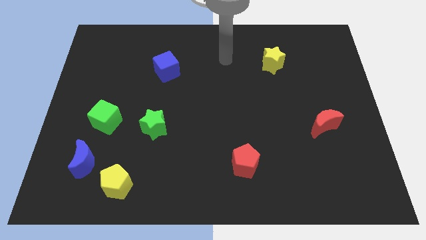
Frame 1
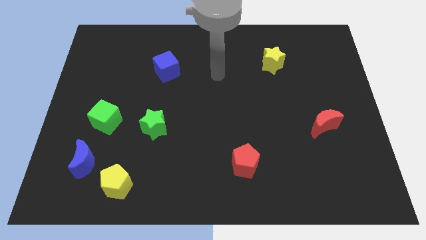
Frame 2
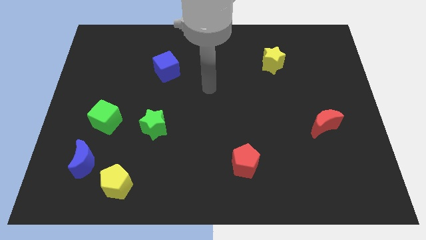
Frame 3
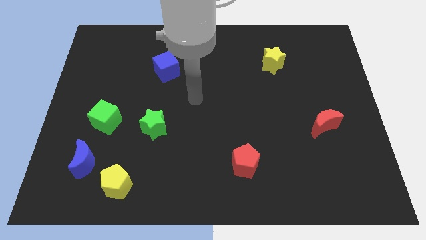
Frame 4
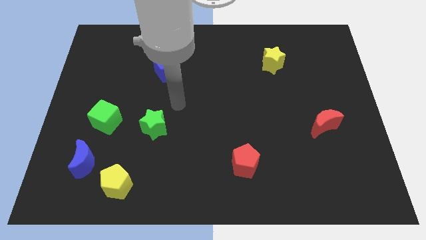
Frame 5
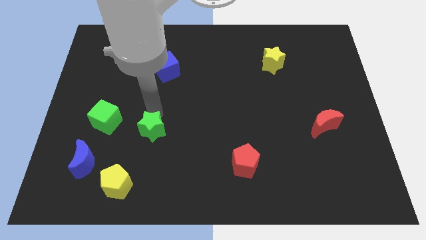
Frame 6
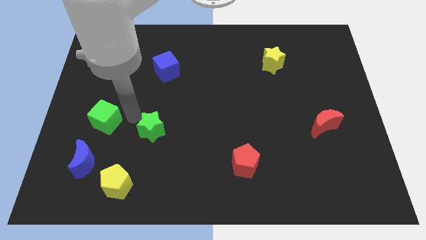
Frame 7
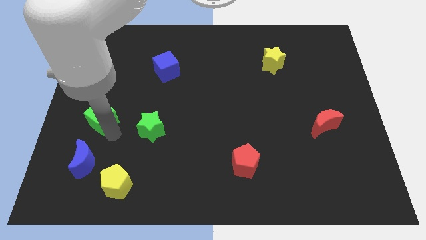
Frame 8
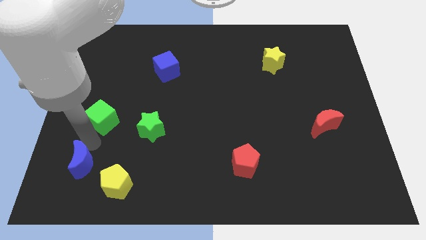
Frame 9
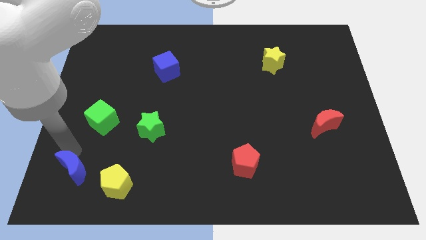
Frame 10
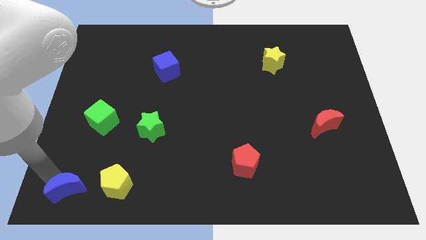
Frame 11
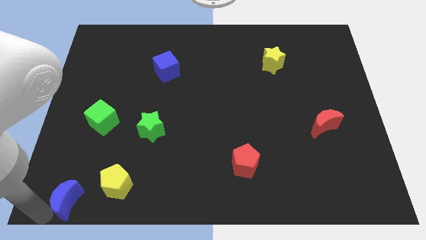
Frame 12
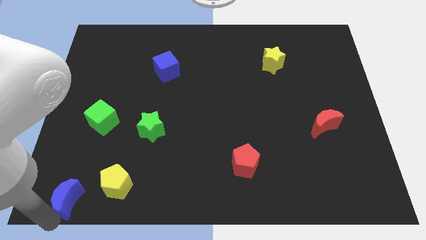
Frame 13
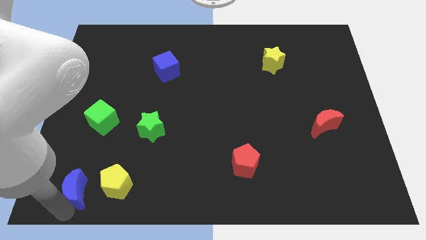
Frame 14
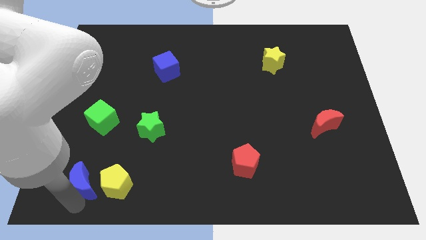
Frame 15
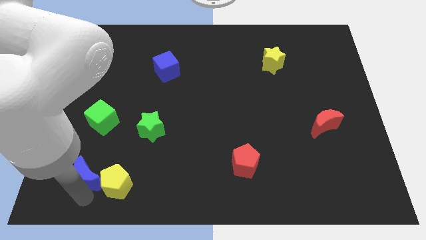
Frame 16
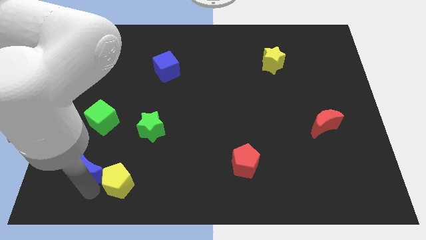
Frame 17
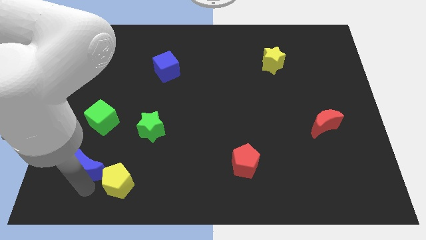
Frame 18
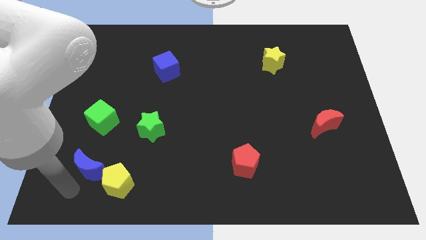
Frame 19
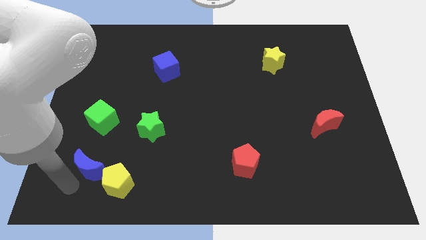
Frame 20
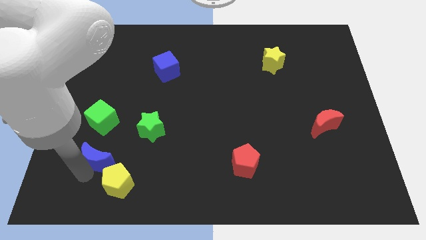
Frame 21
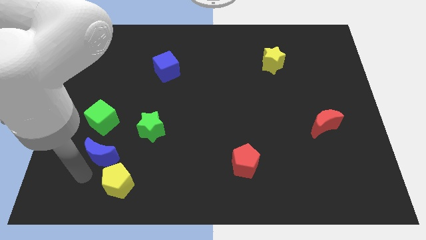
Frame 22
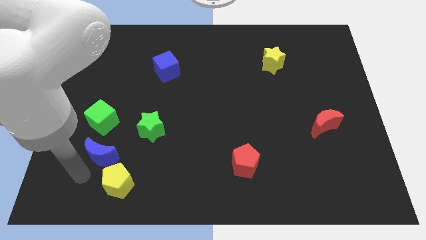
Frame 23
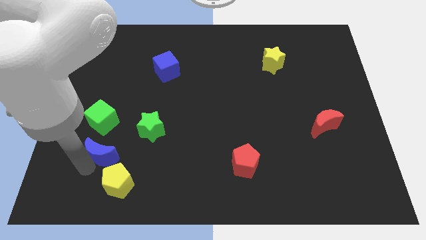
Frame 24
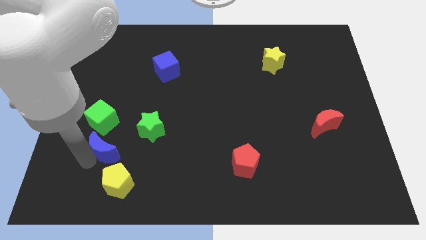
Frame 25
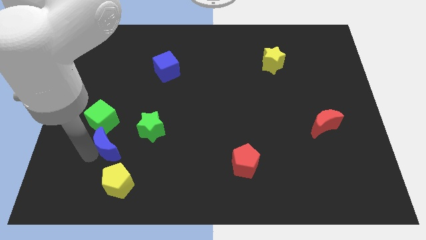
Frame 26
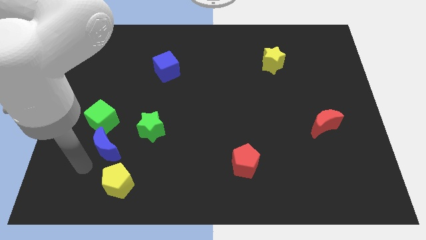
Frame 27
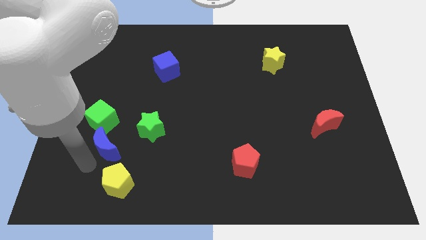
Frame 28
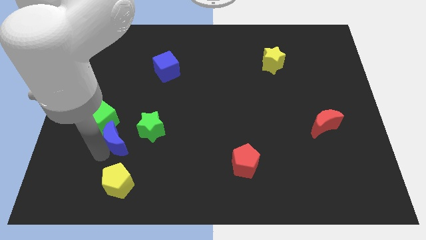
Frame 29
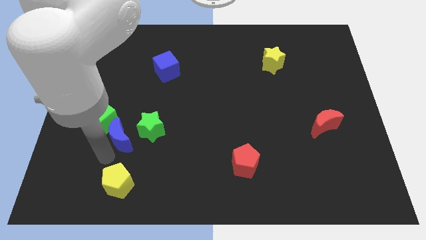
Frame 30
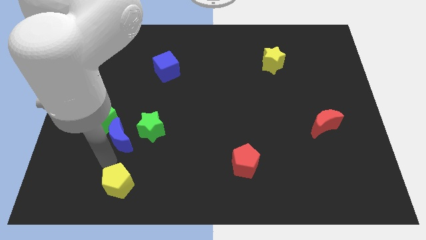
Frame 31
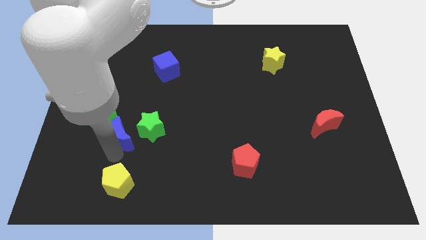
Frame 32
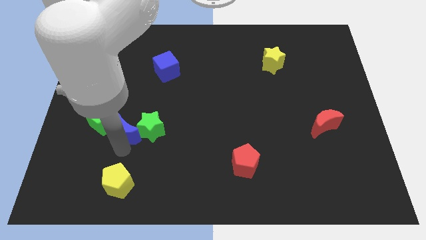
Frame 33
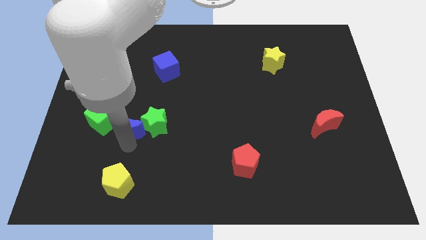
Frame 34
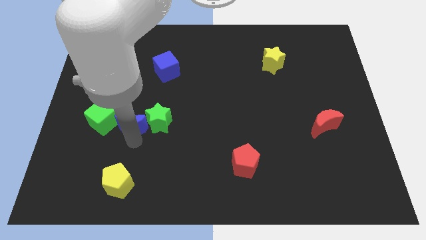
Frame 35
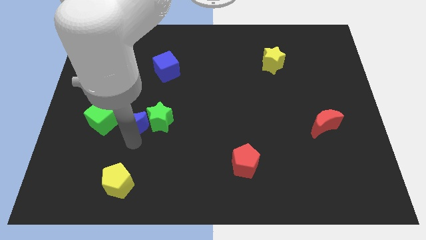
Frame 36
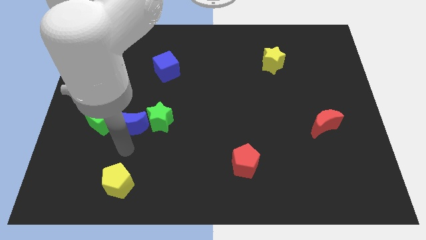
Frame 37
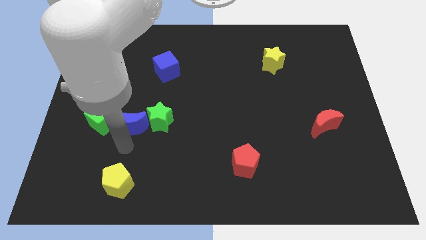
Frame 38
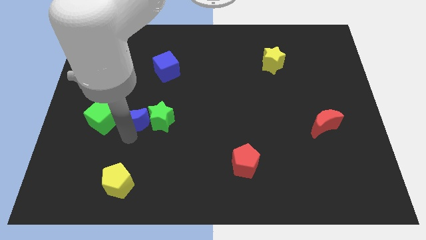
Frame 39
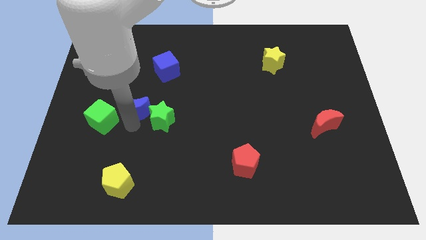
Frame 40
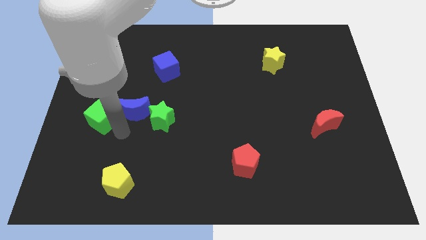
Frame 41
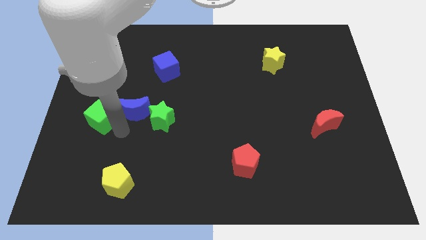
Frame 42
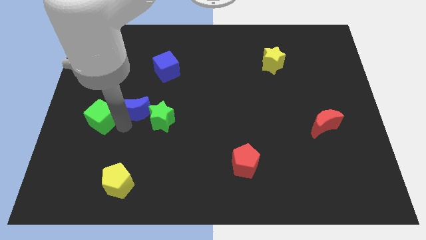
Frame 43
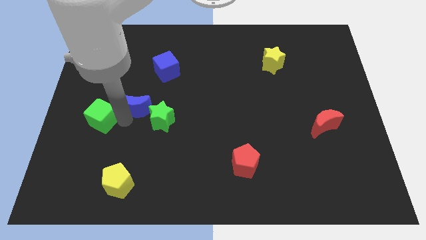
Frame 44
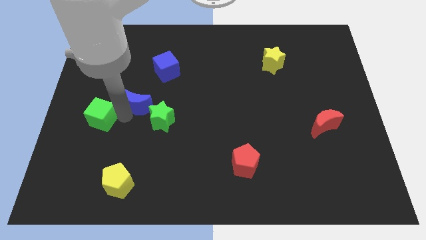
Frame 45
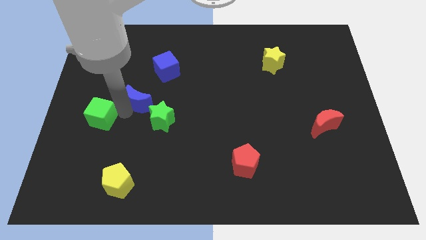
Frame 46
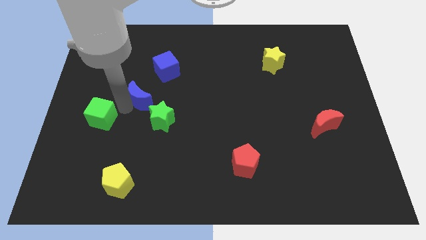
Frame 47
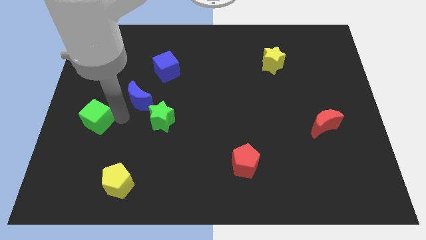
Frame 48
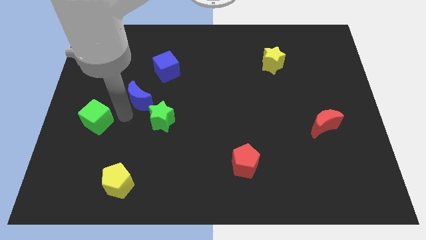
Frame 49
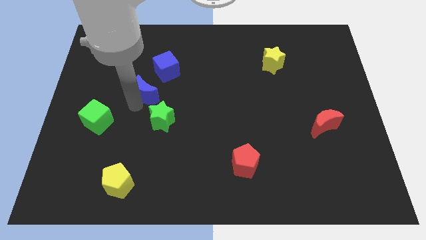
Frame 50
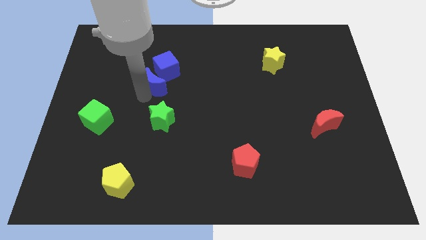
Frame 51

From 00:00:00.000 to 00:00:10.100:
slide the blue moon next to the blue cube

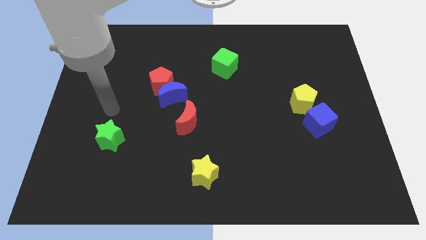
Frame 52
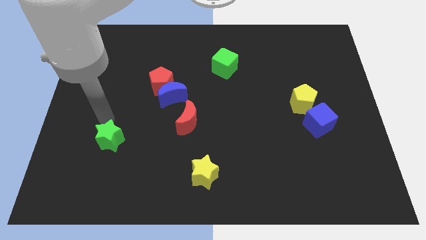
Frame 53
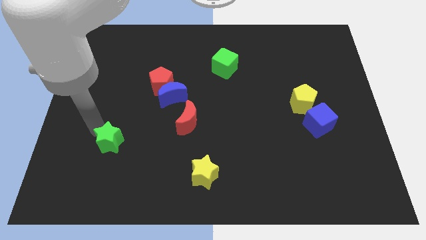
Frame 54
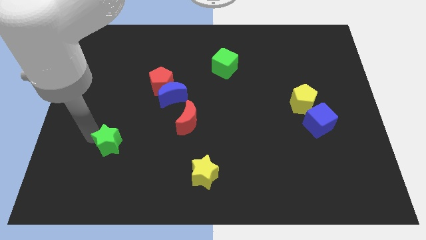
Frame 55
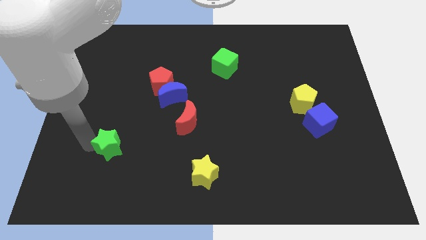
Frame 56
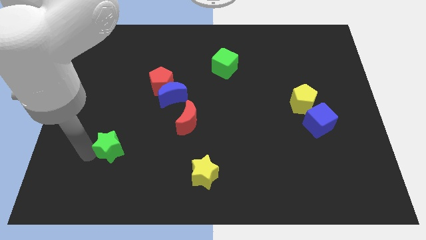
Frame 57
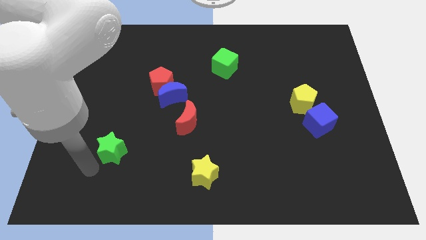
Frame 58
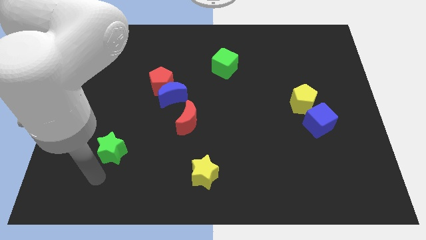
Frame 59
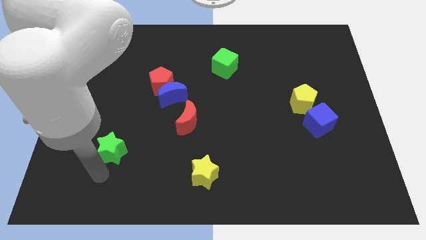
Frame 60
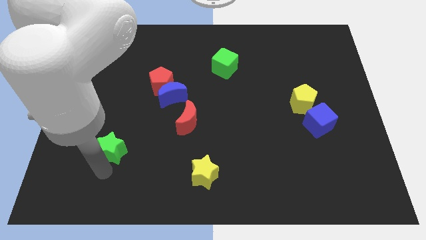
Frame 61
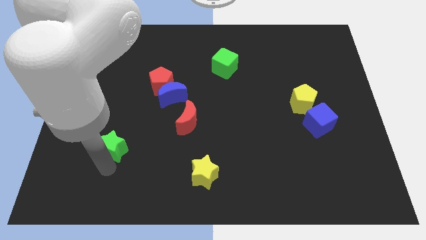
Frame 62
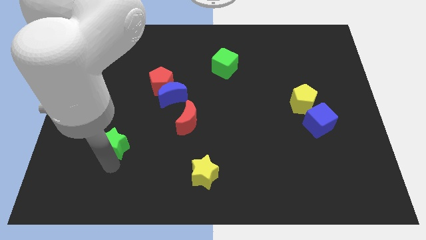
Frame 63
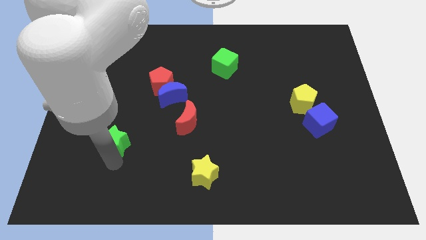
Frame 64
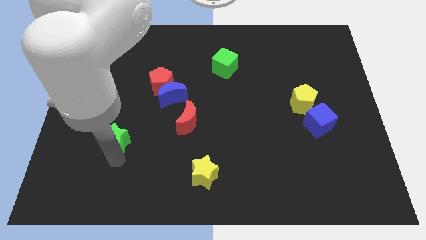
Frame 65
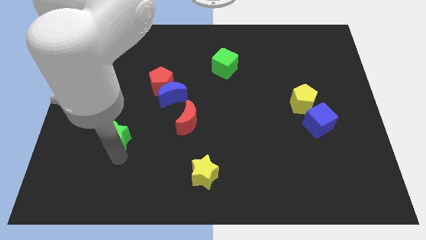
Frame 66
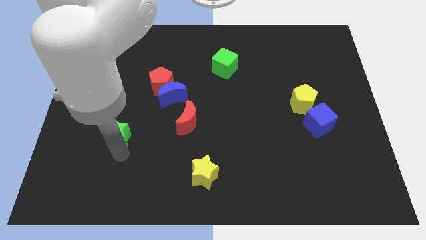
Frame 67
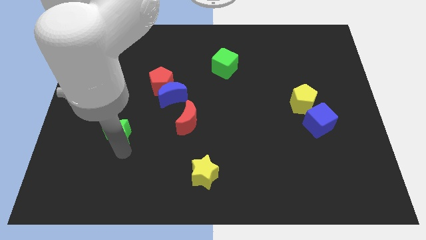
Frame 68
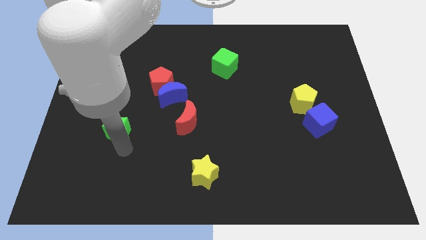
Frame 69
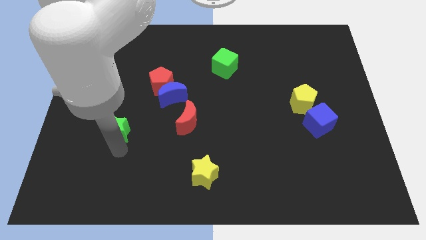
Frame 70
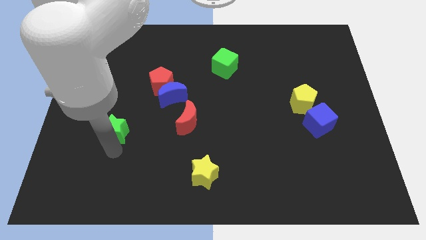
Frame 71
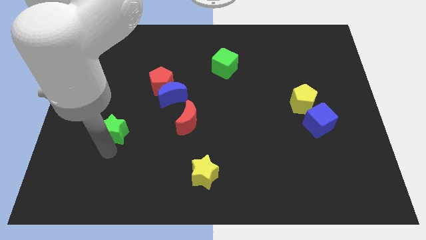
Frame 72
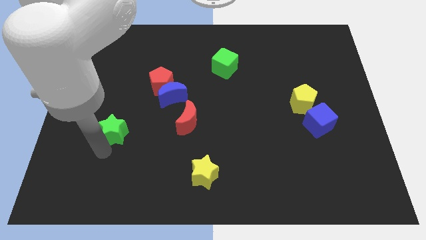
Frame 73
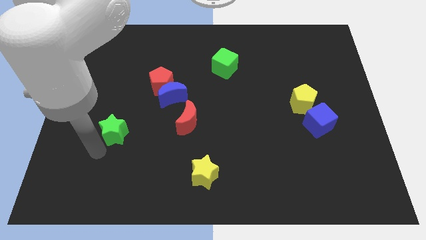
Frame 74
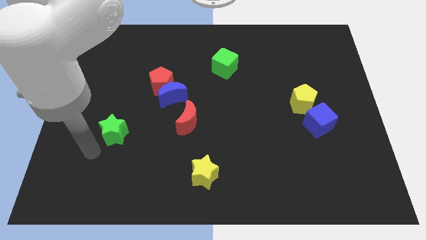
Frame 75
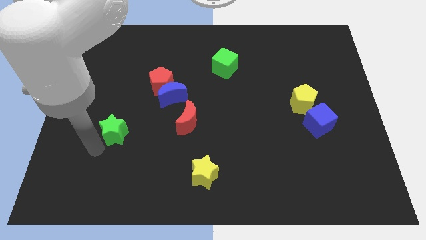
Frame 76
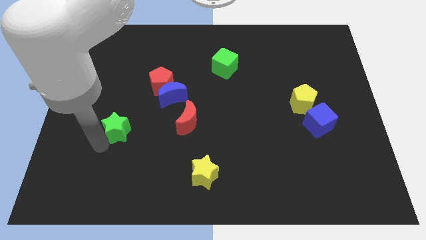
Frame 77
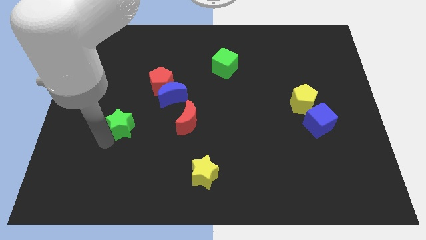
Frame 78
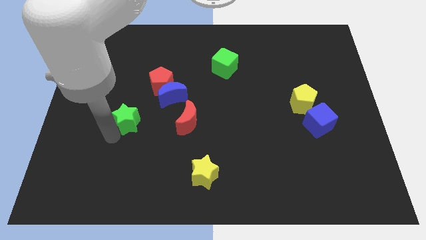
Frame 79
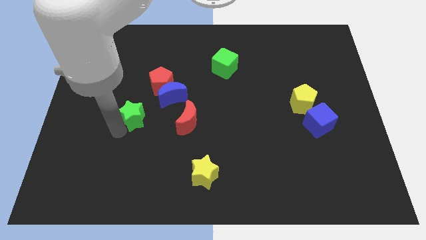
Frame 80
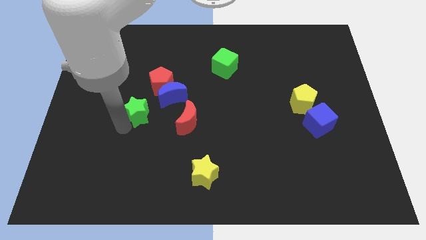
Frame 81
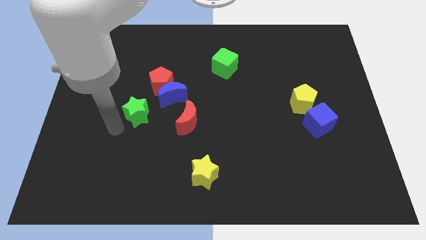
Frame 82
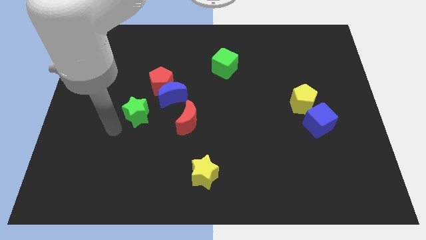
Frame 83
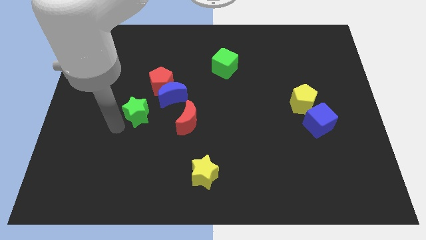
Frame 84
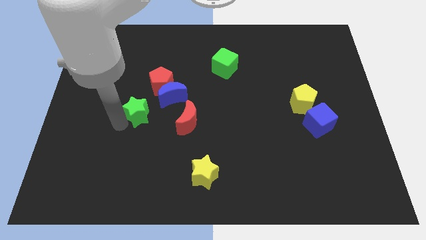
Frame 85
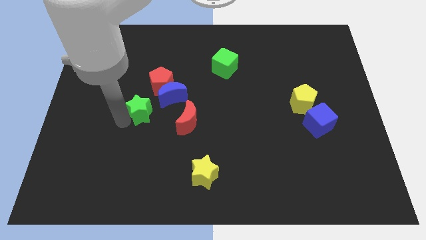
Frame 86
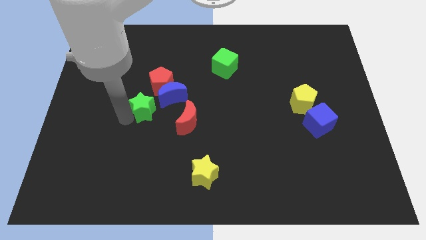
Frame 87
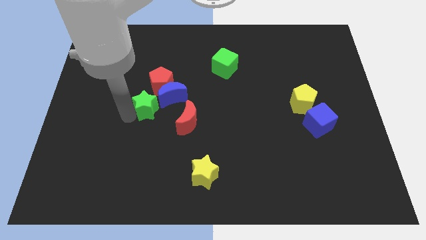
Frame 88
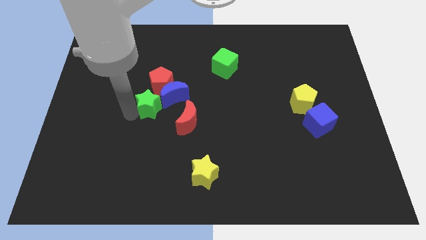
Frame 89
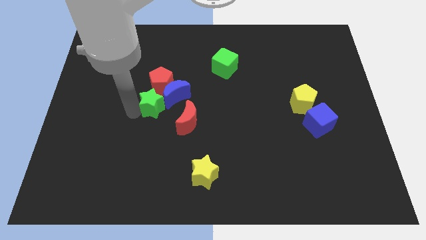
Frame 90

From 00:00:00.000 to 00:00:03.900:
move the green star towards the blue moon
